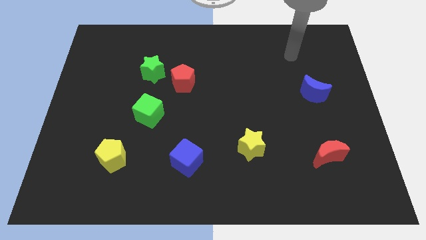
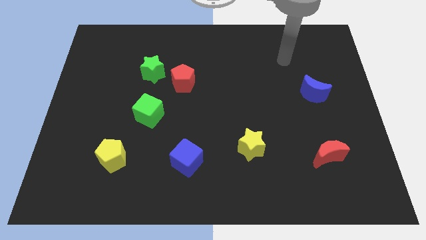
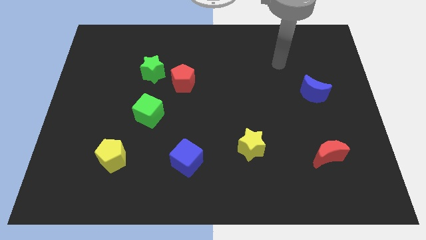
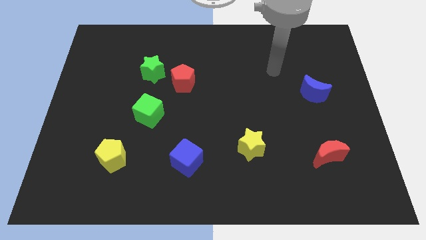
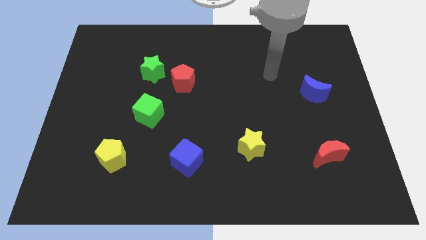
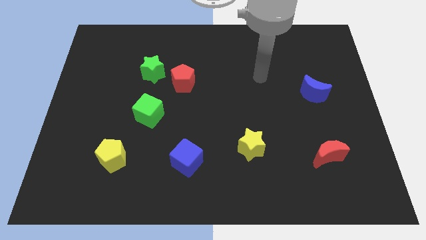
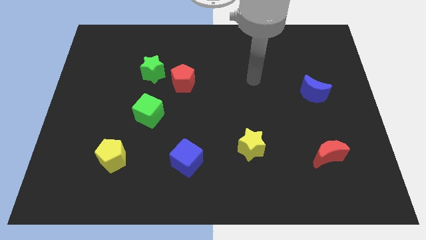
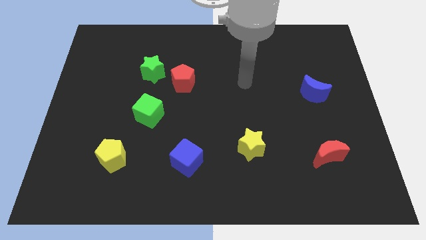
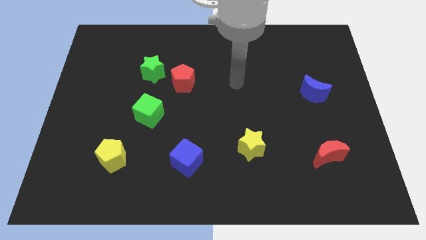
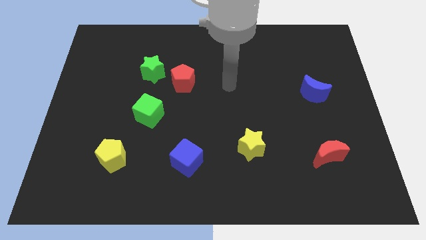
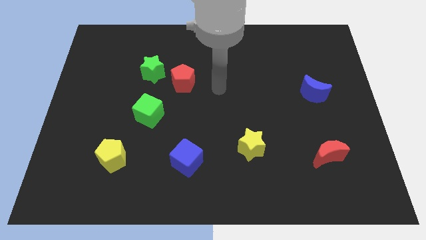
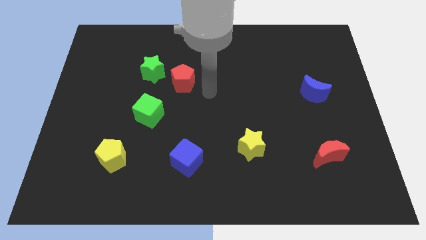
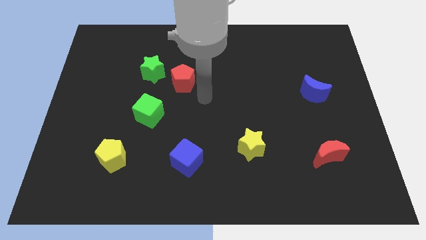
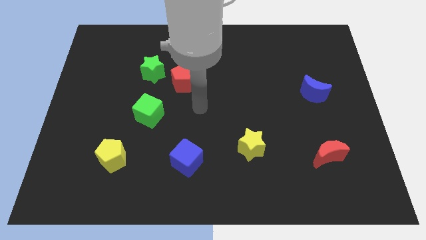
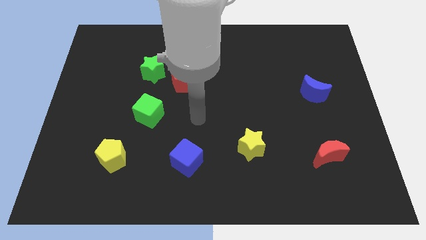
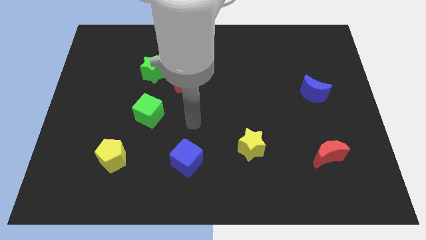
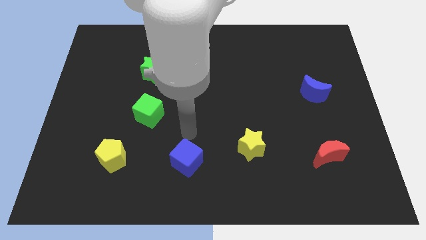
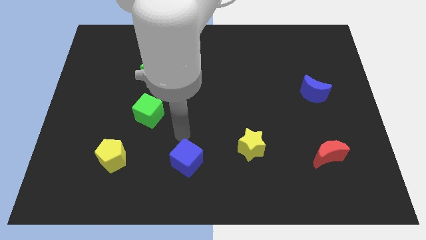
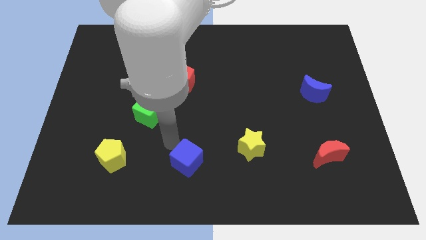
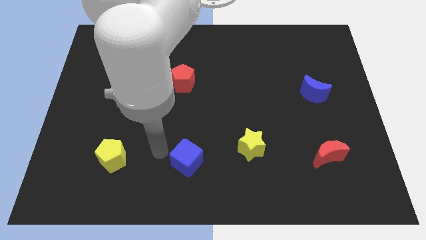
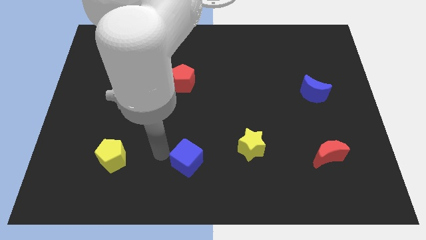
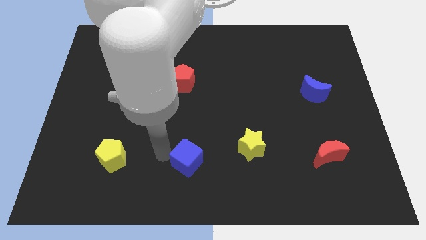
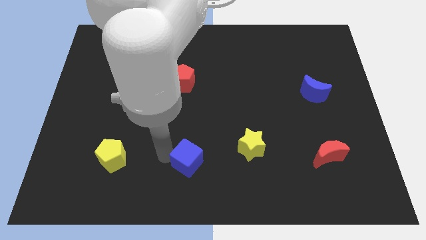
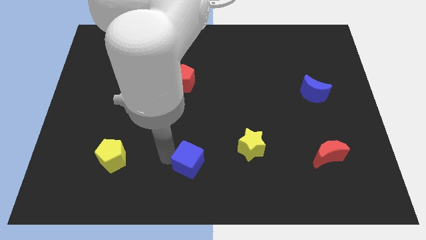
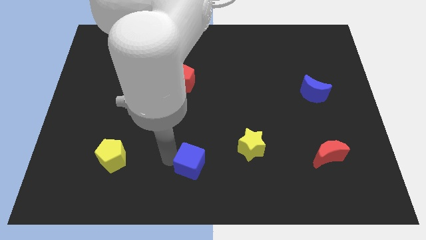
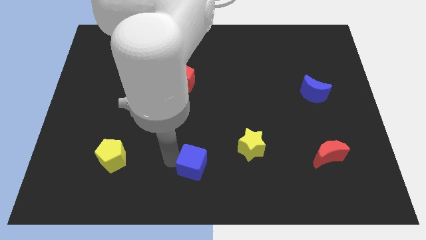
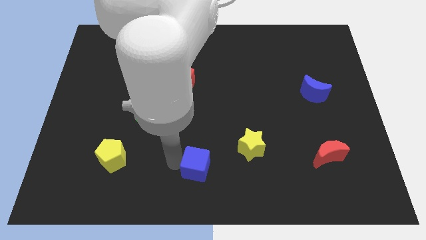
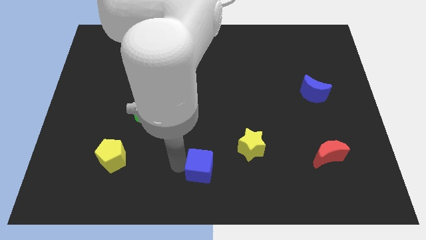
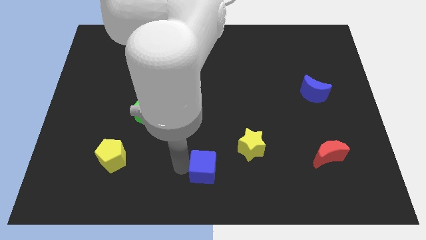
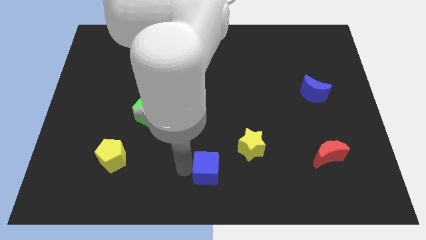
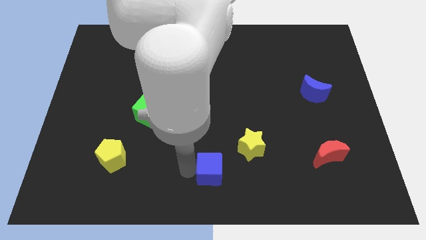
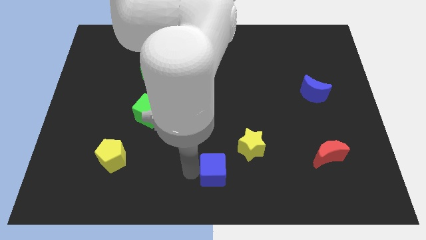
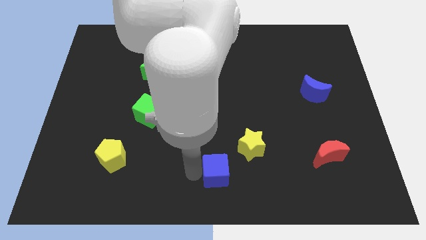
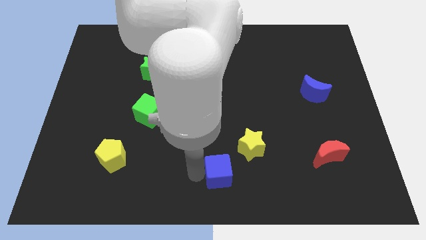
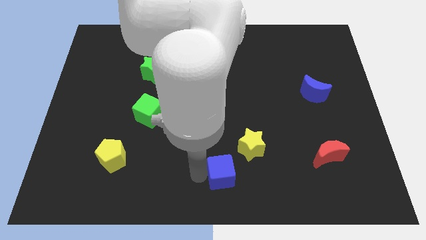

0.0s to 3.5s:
slightly move the blue cube to the right

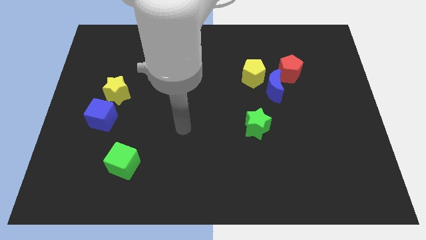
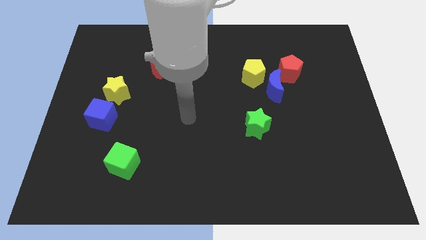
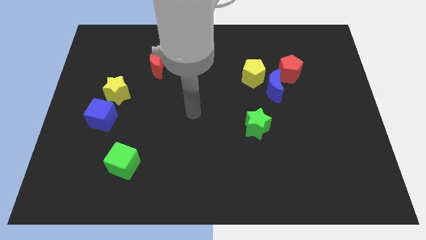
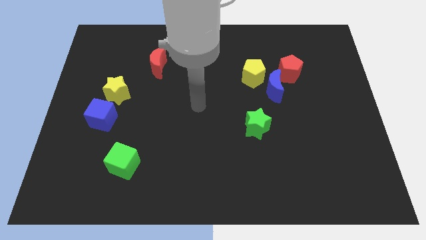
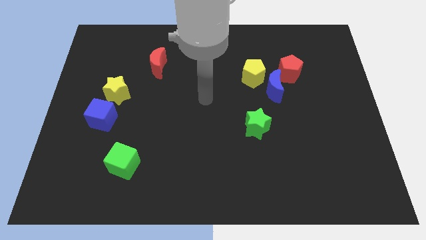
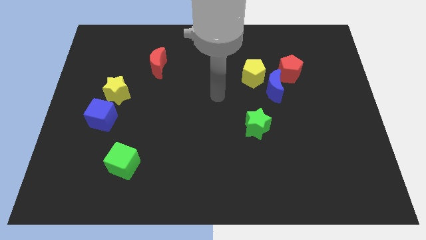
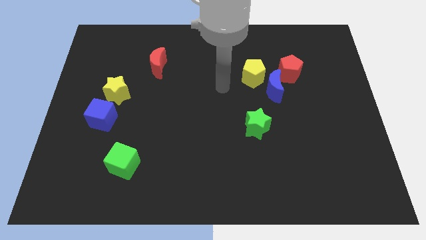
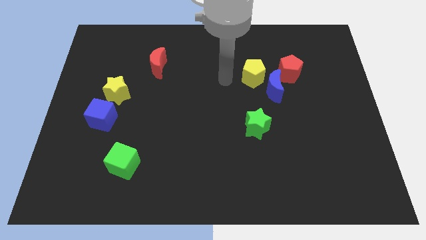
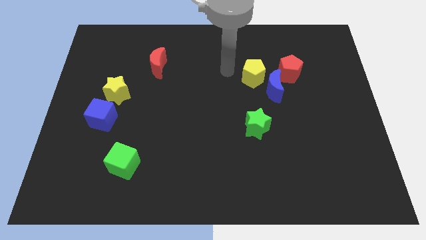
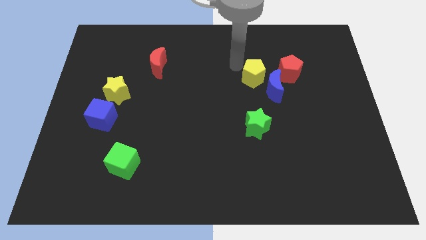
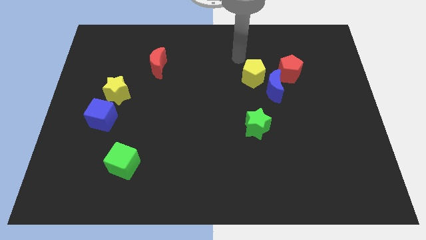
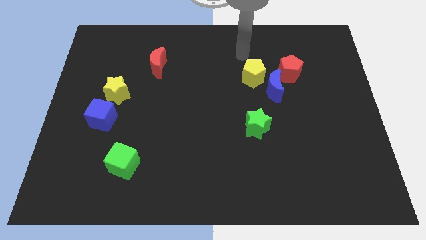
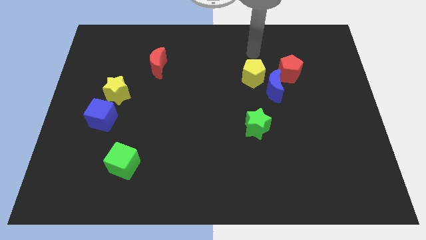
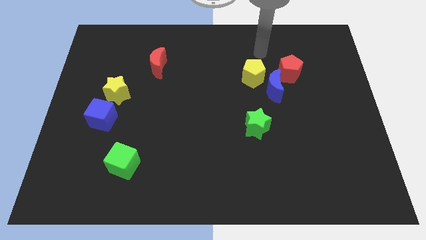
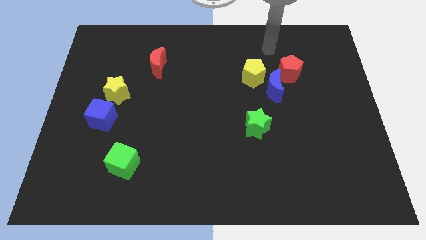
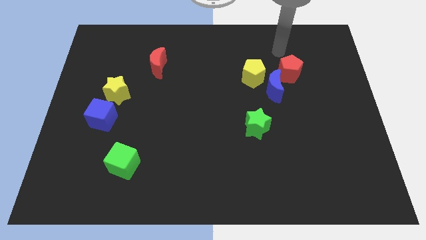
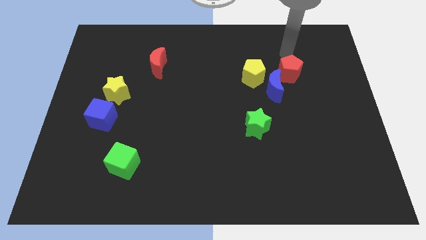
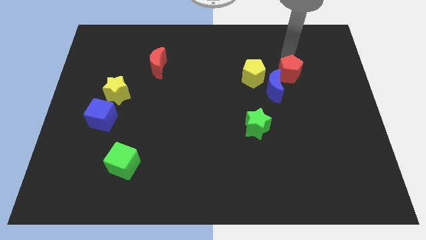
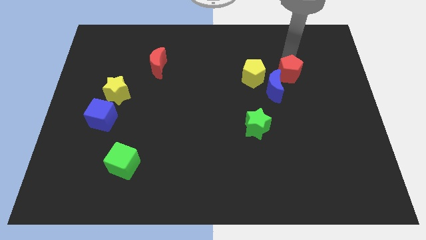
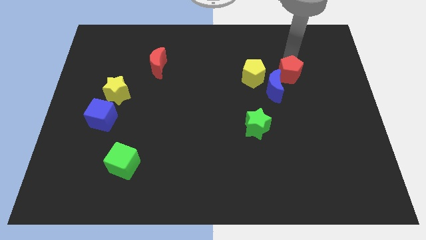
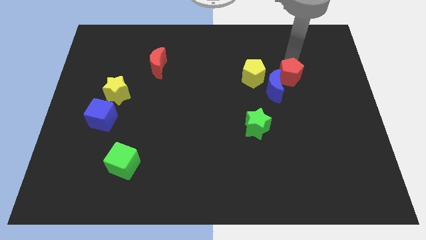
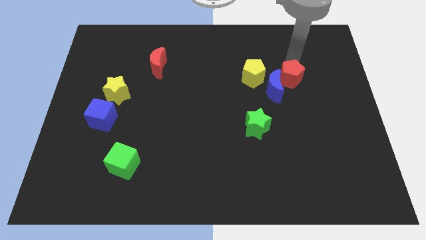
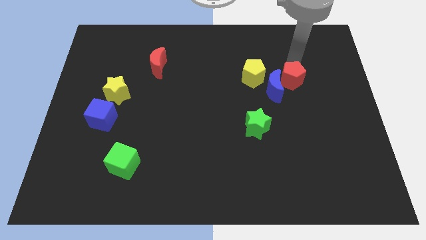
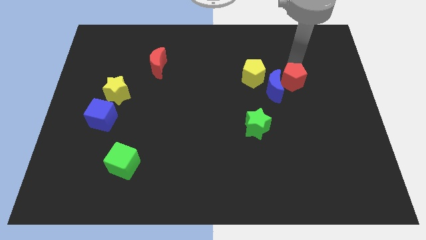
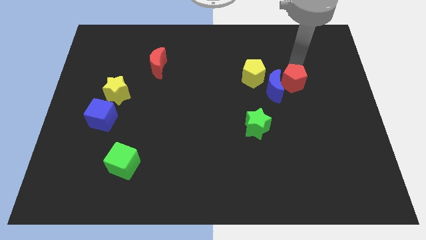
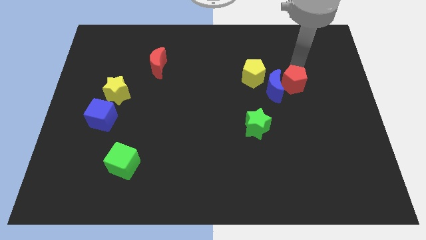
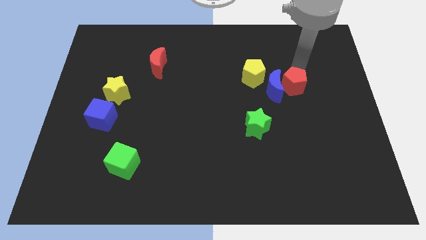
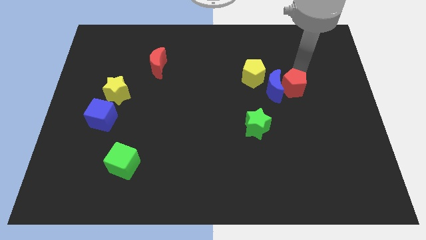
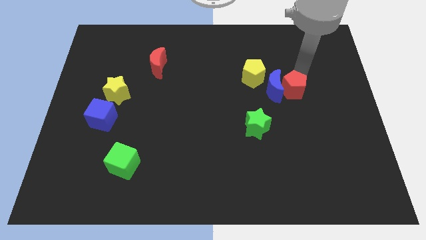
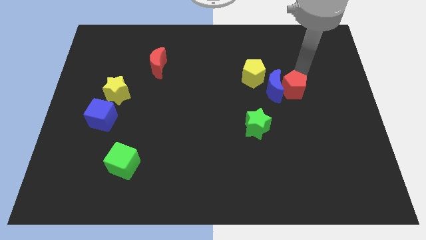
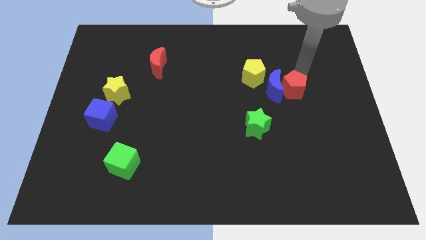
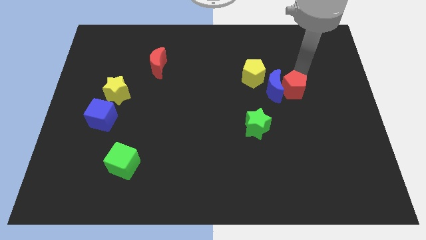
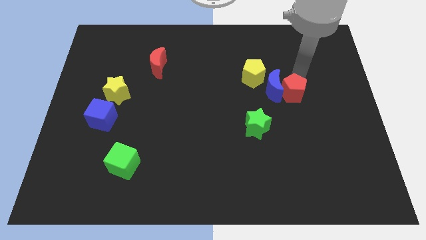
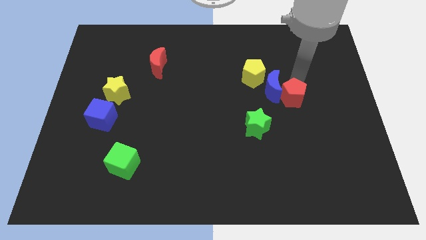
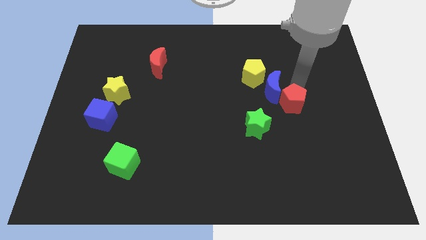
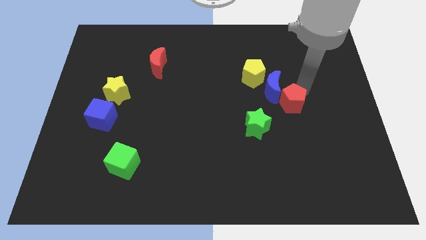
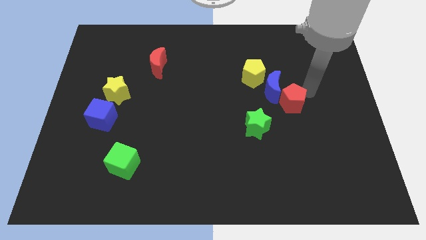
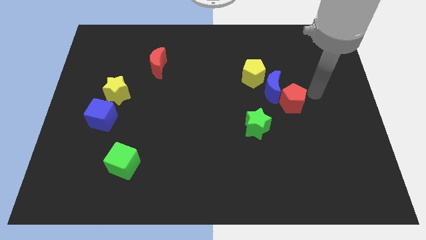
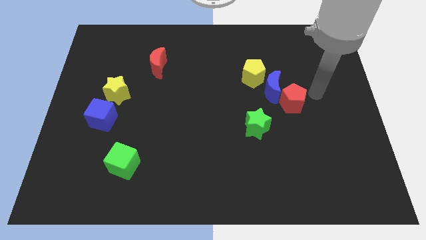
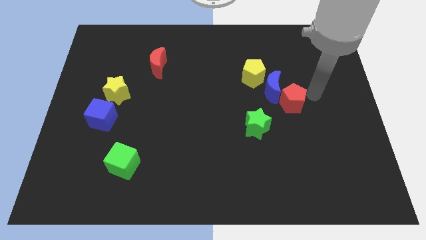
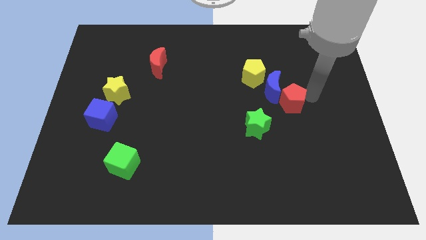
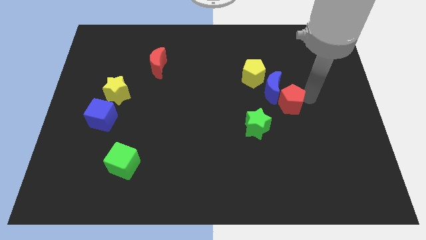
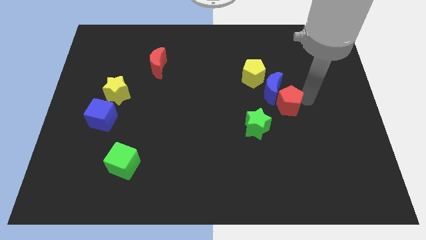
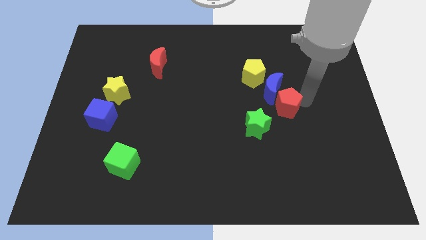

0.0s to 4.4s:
push the red pentagon downwards and left diagonally a little bit
